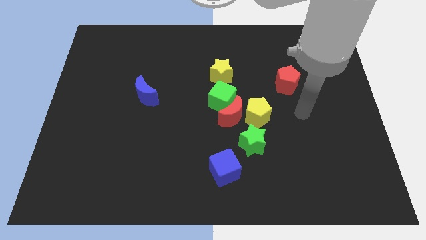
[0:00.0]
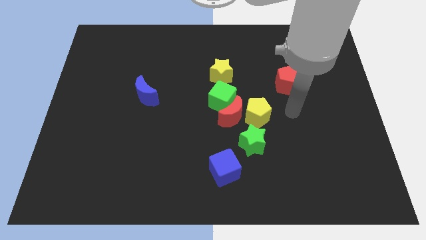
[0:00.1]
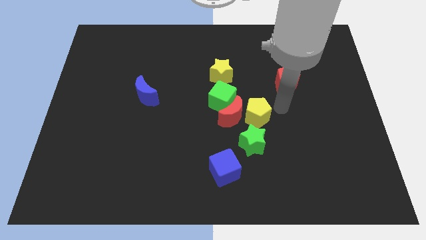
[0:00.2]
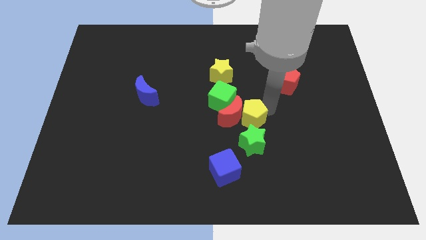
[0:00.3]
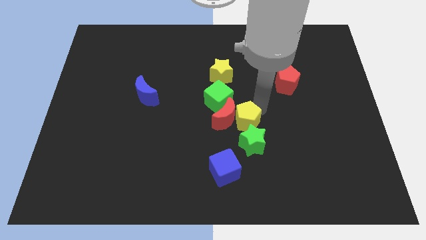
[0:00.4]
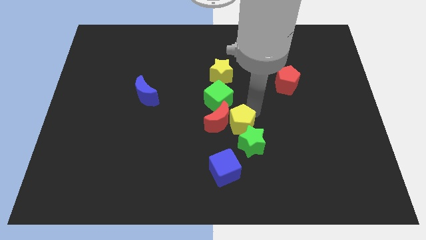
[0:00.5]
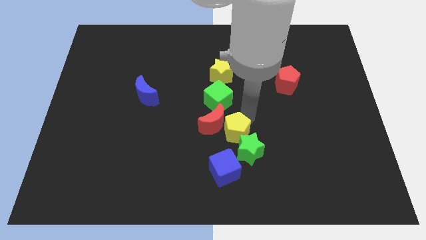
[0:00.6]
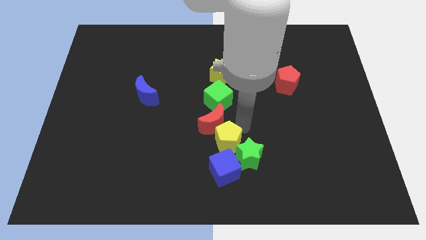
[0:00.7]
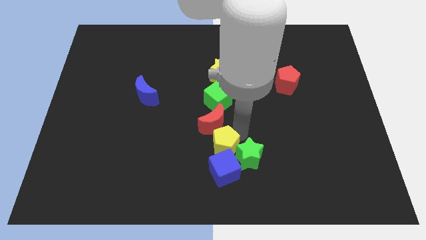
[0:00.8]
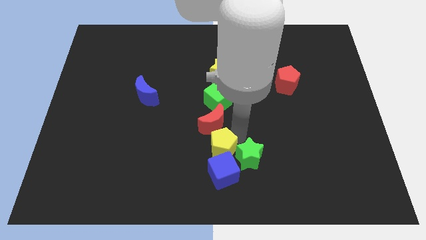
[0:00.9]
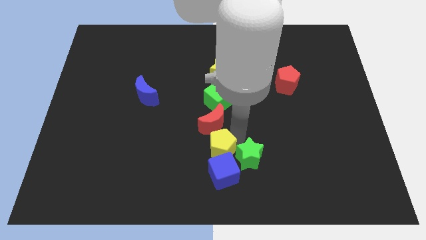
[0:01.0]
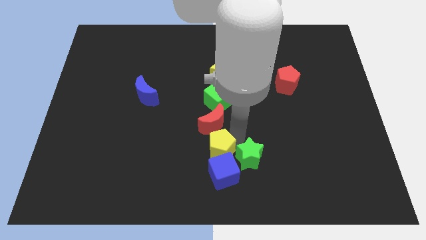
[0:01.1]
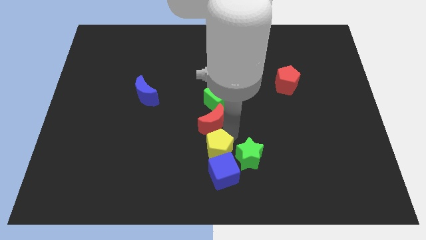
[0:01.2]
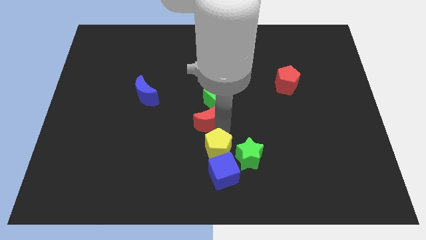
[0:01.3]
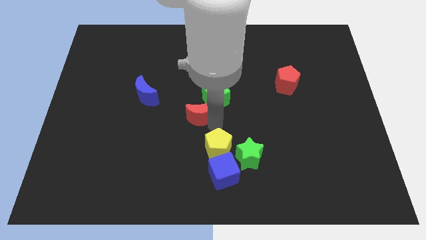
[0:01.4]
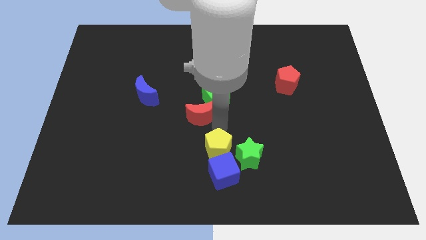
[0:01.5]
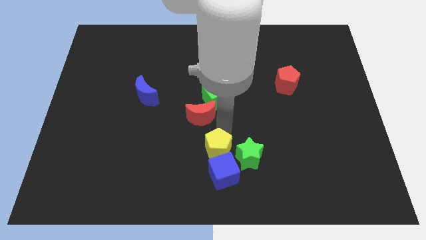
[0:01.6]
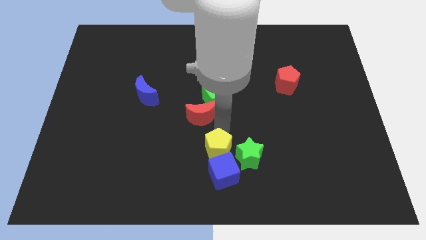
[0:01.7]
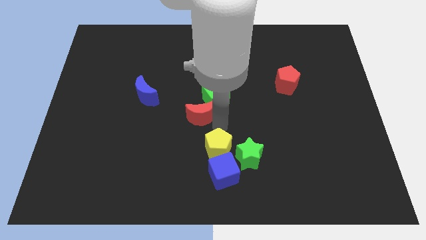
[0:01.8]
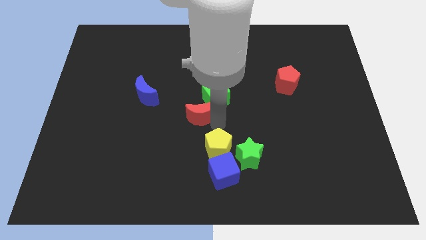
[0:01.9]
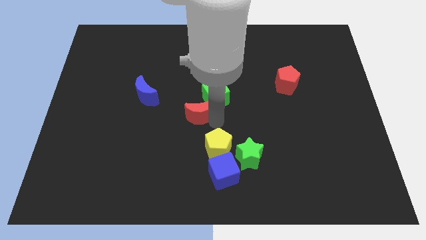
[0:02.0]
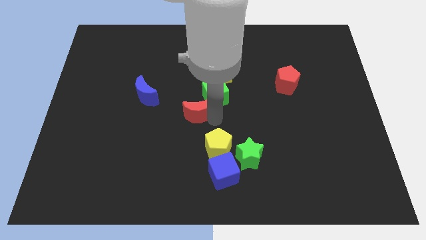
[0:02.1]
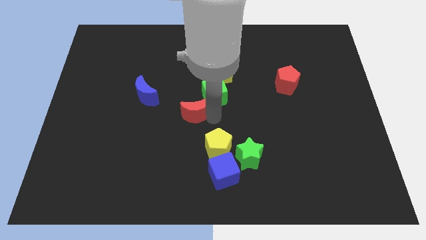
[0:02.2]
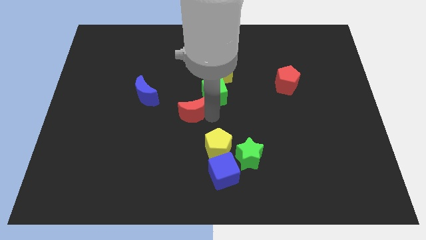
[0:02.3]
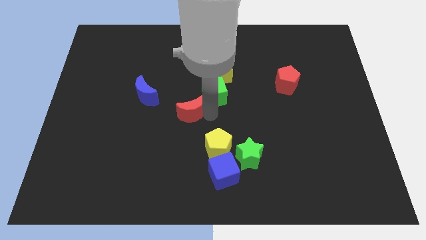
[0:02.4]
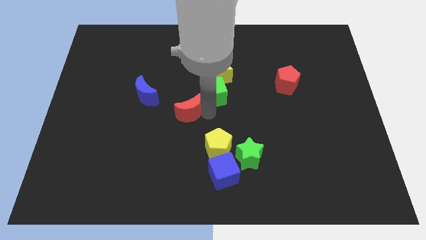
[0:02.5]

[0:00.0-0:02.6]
separate the red moon from the green cube, yellow pentagon, and green star

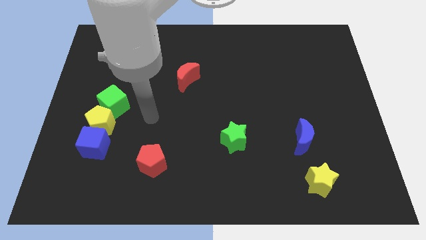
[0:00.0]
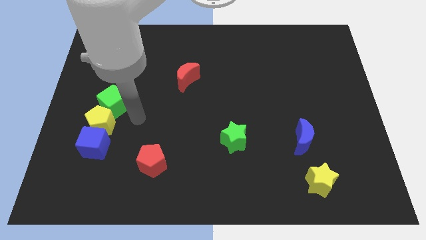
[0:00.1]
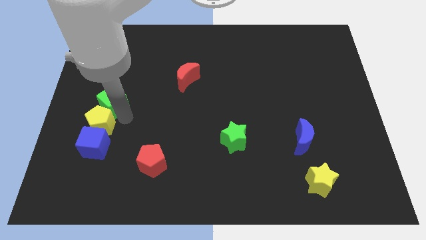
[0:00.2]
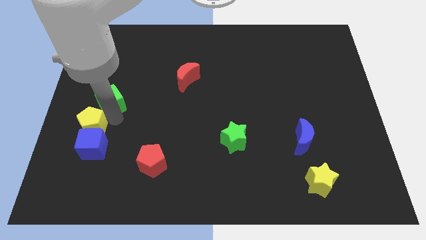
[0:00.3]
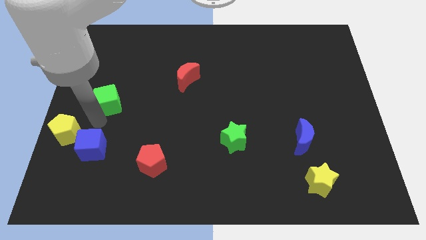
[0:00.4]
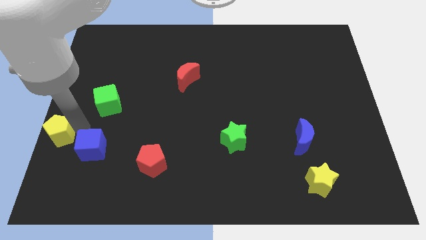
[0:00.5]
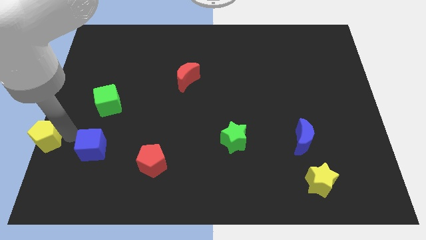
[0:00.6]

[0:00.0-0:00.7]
move the blue cube away from the yellow pentagon

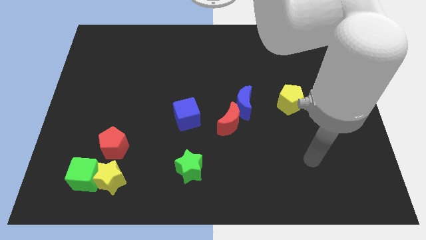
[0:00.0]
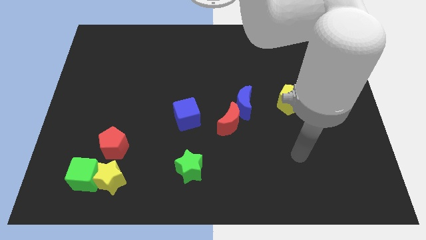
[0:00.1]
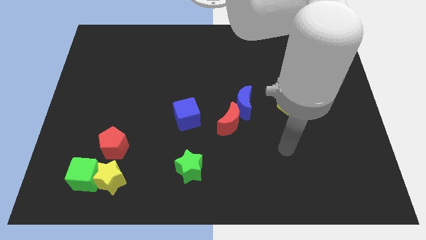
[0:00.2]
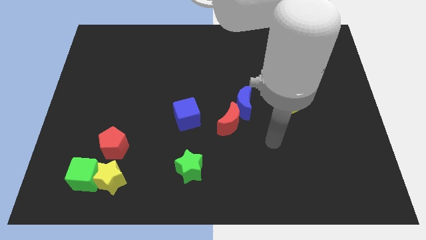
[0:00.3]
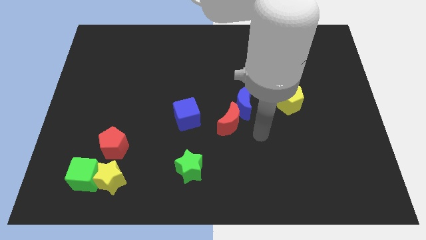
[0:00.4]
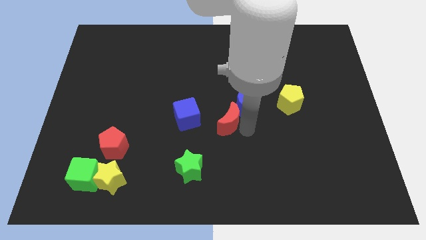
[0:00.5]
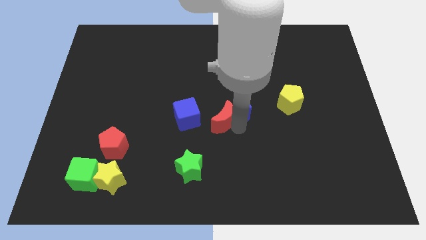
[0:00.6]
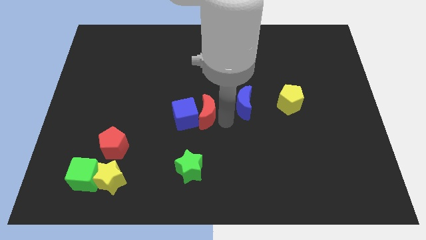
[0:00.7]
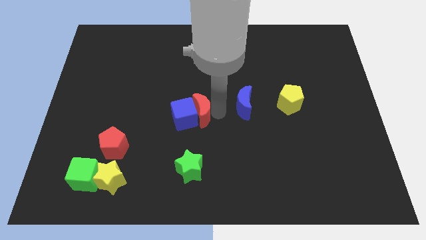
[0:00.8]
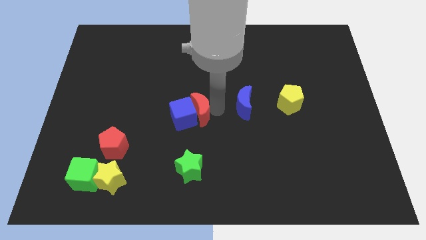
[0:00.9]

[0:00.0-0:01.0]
separate the blue moon from the red moon

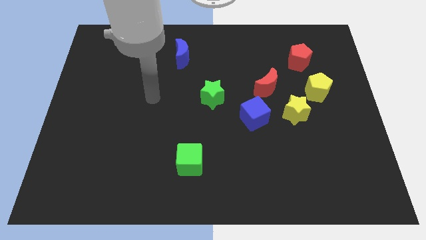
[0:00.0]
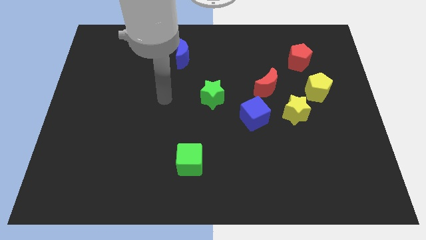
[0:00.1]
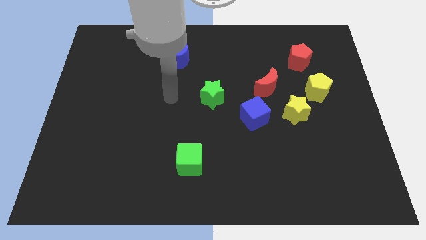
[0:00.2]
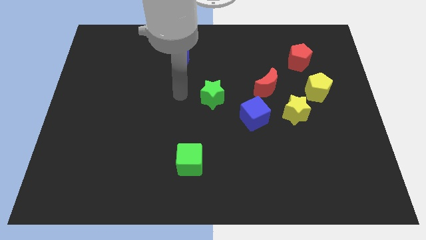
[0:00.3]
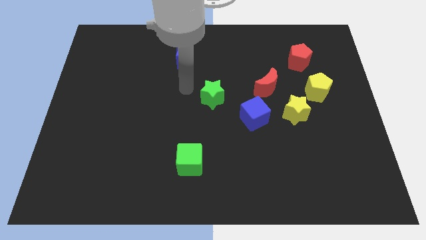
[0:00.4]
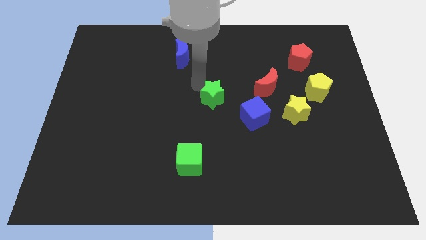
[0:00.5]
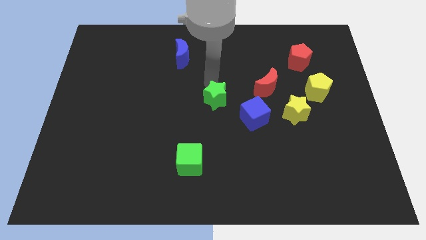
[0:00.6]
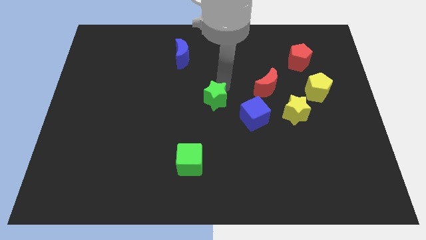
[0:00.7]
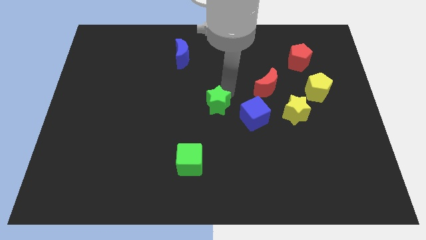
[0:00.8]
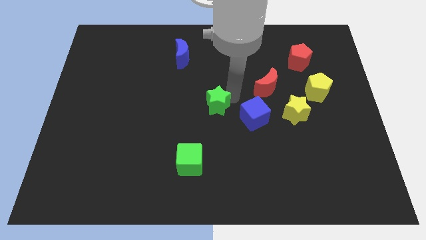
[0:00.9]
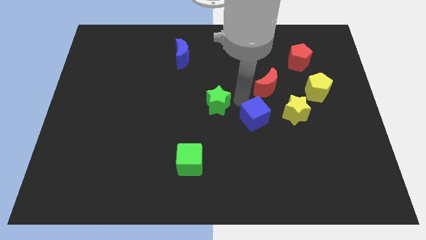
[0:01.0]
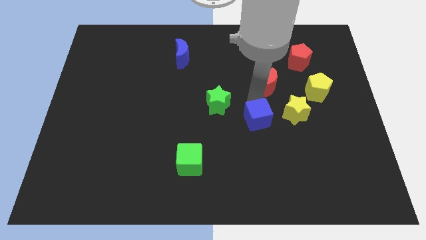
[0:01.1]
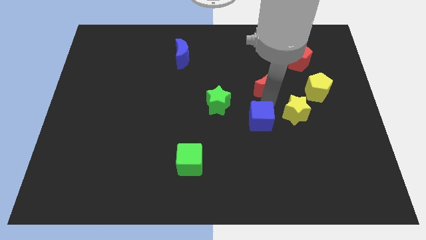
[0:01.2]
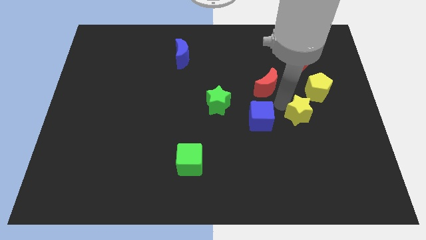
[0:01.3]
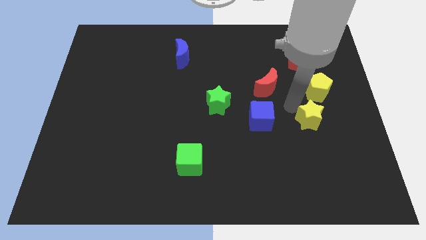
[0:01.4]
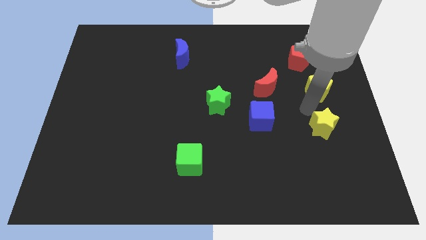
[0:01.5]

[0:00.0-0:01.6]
pull the yellow pentagon apart from the yellow star

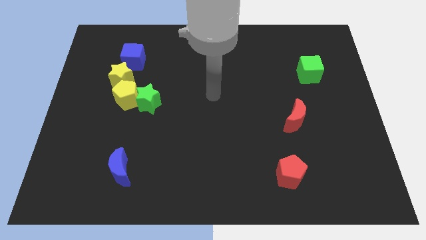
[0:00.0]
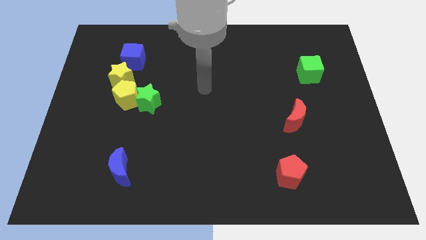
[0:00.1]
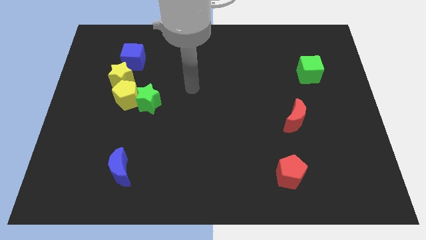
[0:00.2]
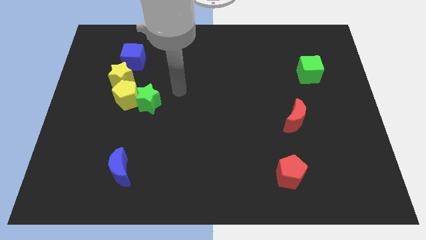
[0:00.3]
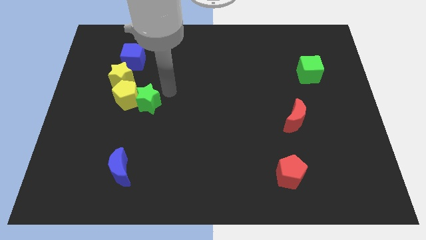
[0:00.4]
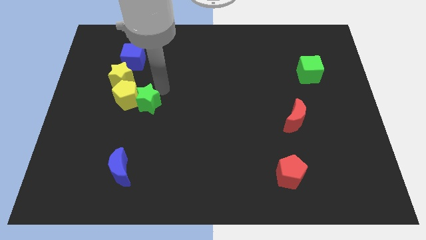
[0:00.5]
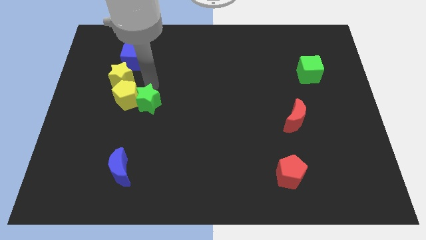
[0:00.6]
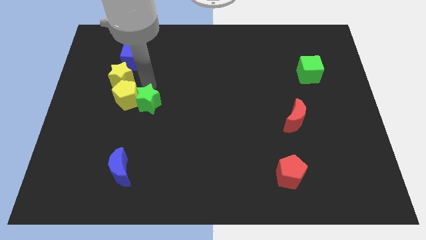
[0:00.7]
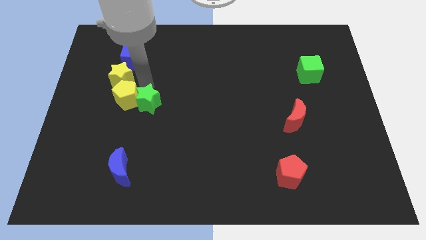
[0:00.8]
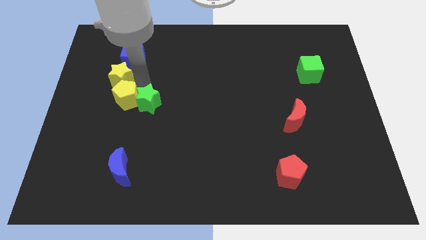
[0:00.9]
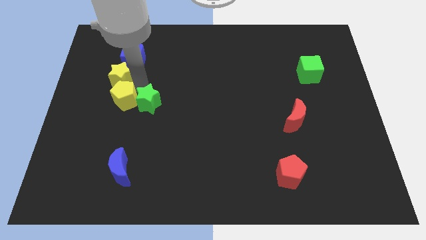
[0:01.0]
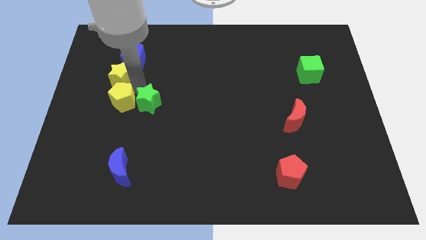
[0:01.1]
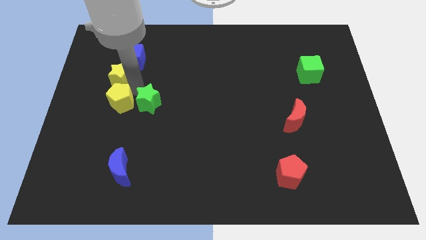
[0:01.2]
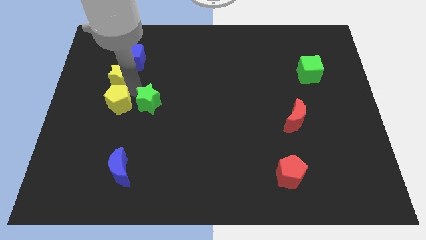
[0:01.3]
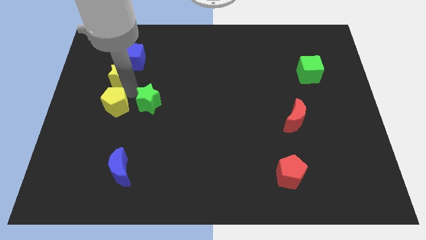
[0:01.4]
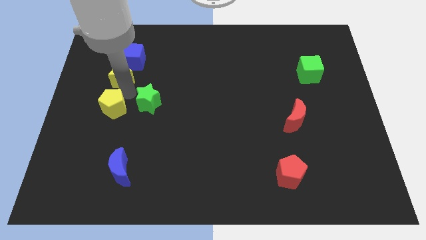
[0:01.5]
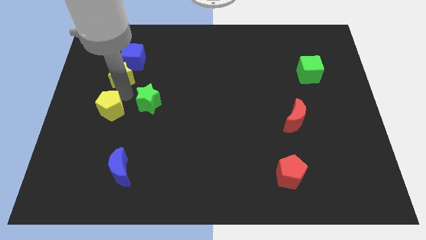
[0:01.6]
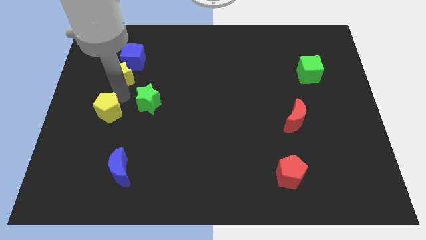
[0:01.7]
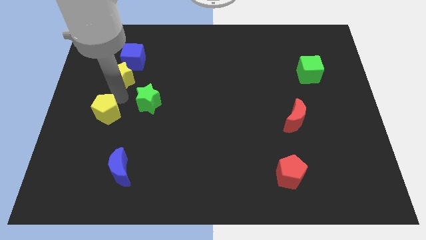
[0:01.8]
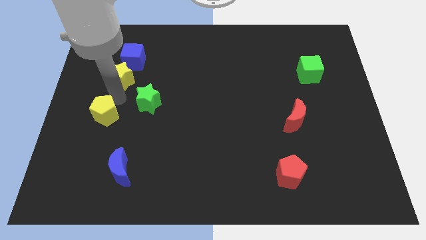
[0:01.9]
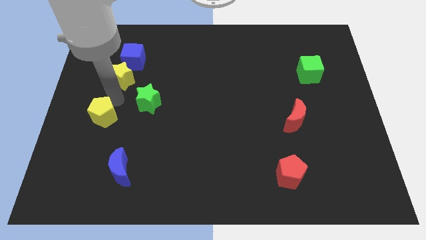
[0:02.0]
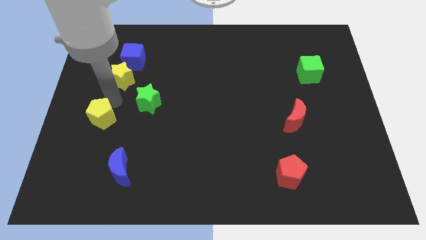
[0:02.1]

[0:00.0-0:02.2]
pull the yellow pentagon apart from the green star and yellow star

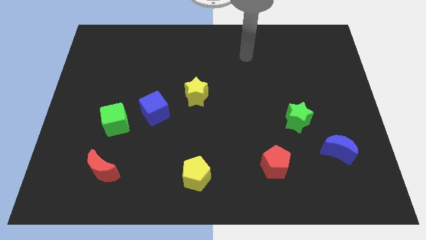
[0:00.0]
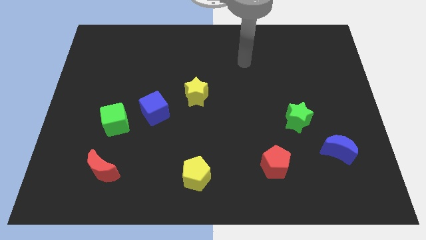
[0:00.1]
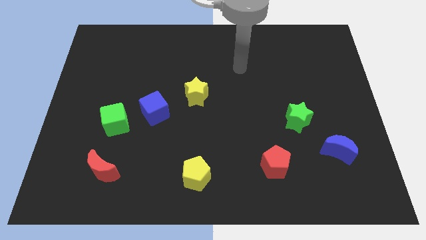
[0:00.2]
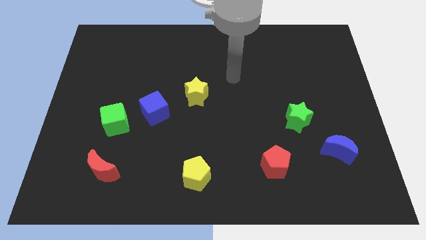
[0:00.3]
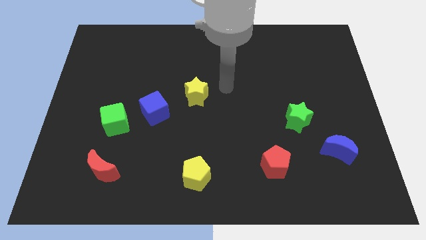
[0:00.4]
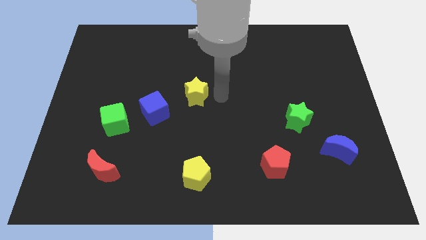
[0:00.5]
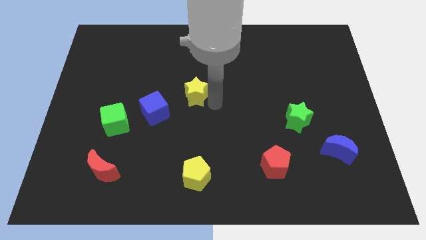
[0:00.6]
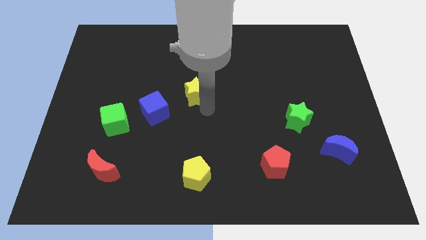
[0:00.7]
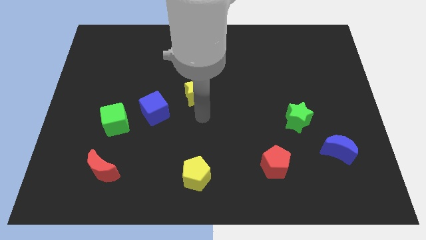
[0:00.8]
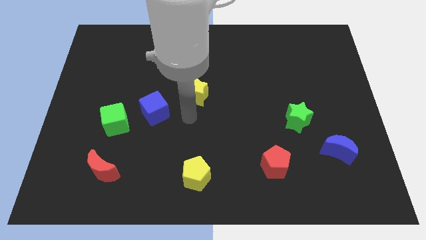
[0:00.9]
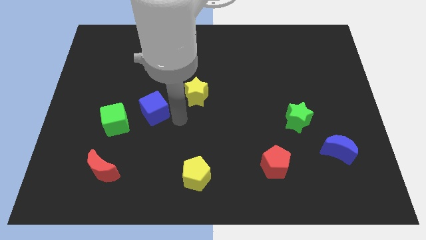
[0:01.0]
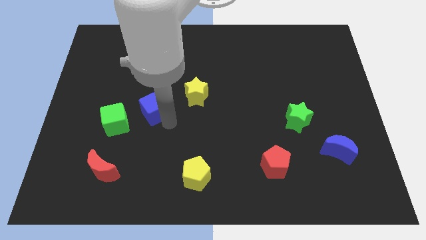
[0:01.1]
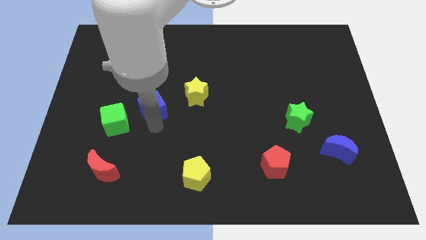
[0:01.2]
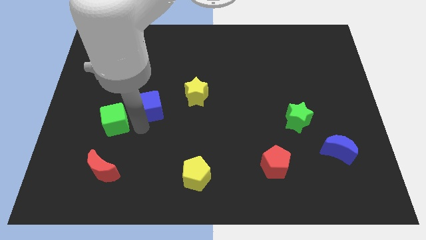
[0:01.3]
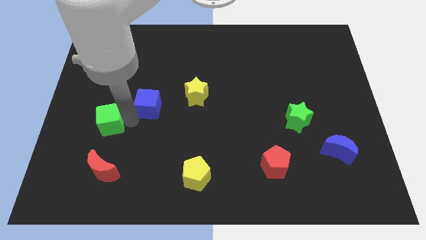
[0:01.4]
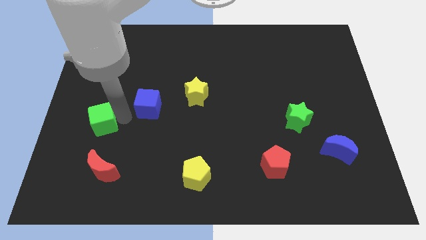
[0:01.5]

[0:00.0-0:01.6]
separate the blue cube from the green cube
